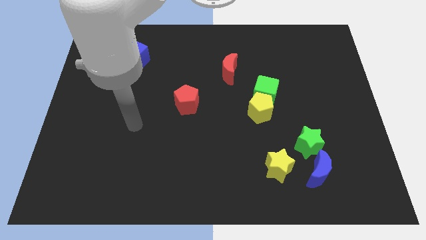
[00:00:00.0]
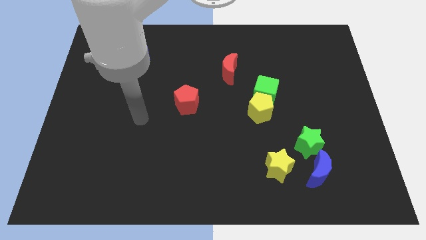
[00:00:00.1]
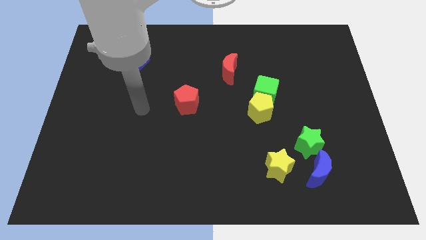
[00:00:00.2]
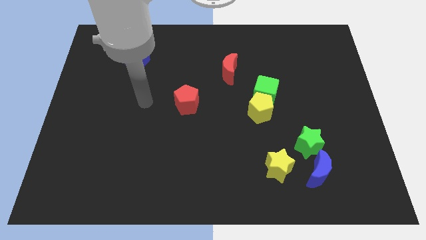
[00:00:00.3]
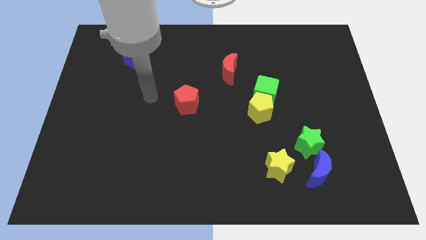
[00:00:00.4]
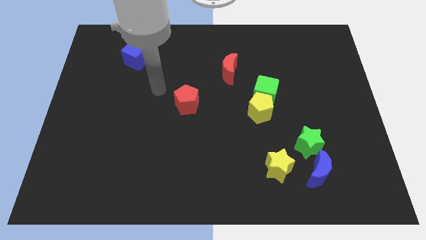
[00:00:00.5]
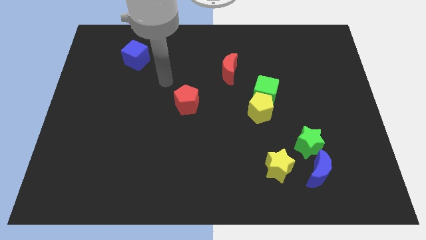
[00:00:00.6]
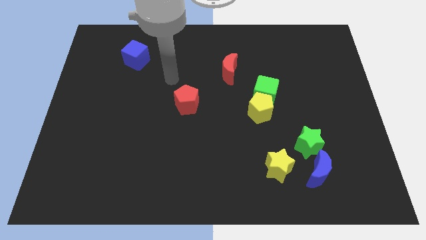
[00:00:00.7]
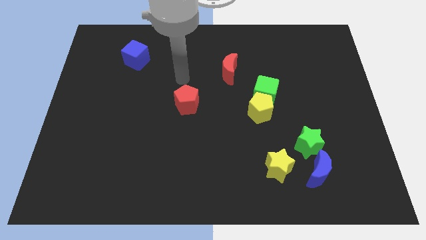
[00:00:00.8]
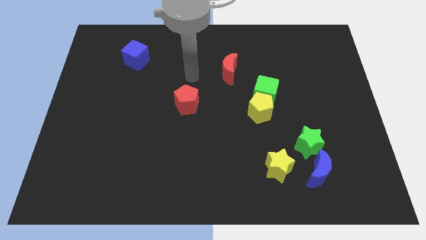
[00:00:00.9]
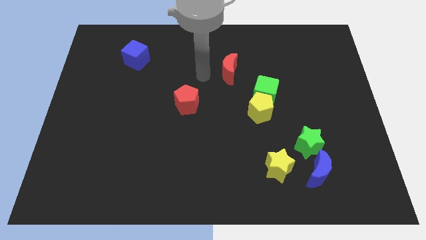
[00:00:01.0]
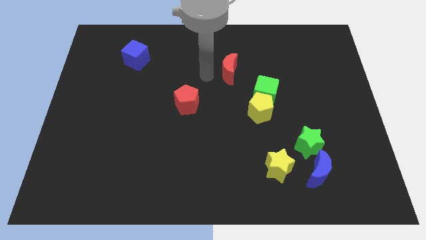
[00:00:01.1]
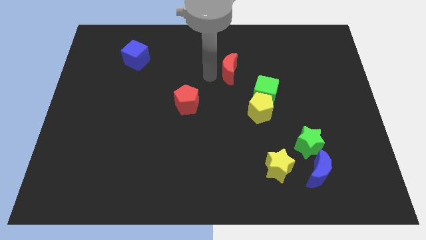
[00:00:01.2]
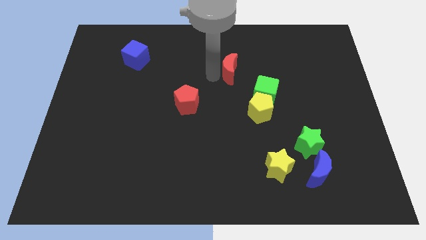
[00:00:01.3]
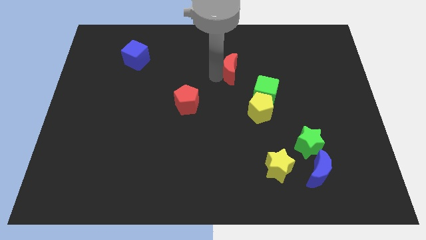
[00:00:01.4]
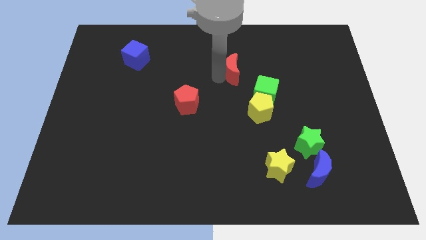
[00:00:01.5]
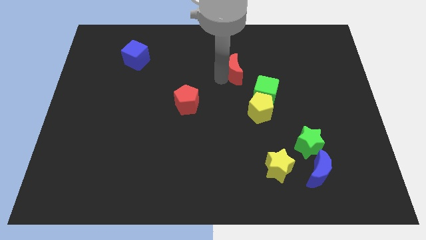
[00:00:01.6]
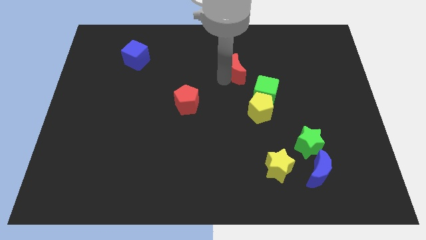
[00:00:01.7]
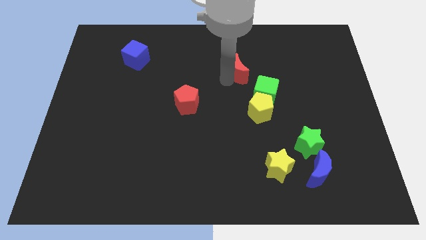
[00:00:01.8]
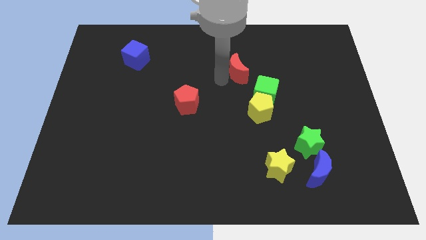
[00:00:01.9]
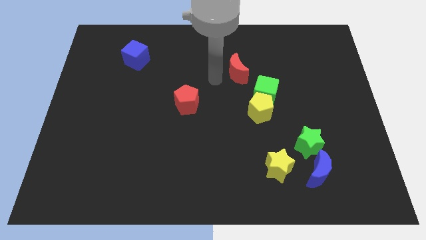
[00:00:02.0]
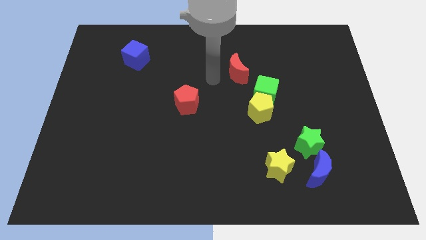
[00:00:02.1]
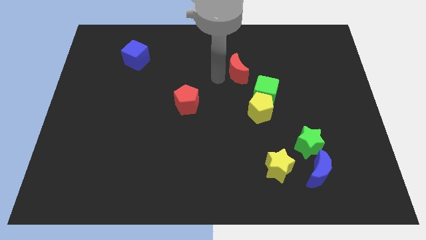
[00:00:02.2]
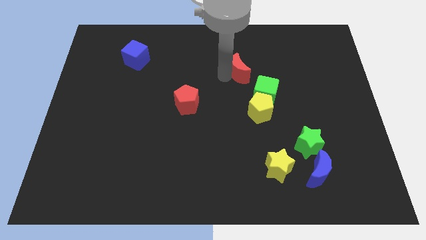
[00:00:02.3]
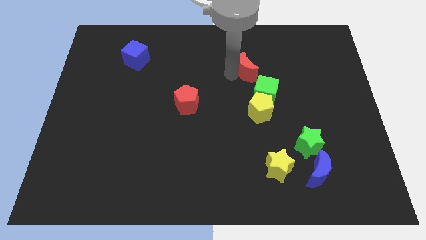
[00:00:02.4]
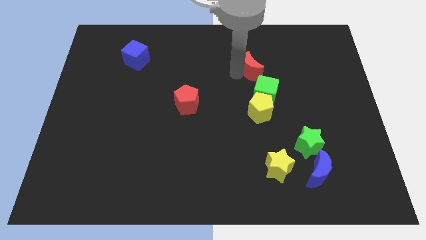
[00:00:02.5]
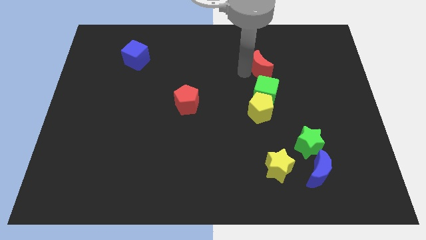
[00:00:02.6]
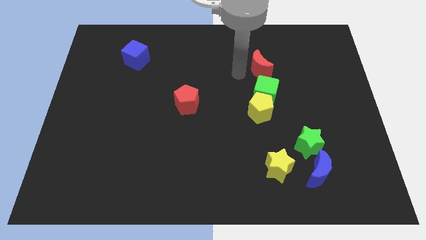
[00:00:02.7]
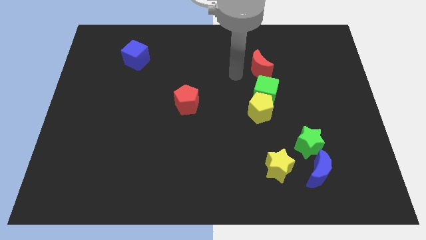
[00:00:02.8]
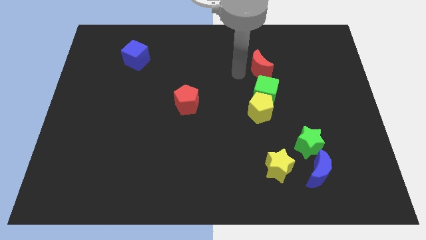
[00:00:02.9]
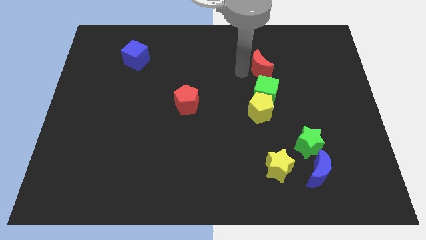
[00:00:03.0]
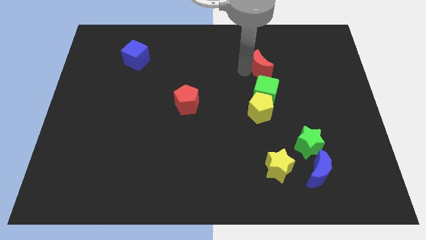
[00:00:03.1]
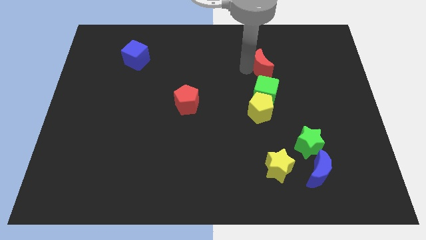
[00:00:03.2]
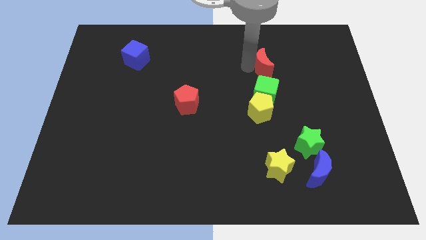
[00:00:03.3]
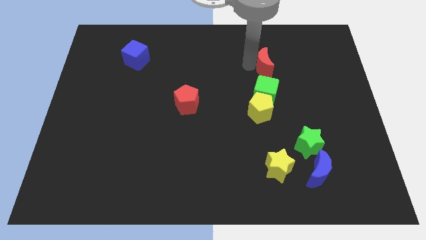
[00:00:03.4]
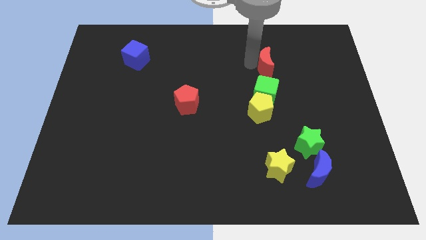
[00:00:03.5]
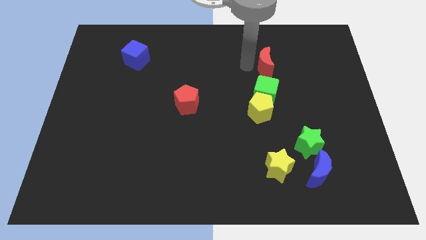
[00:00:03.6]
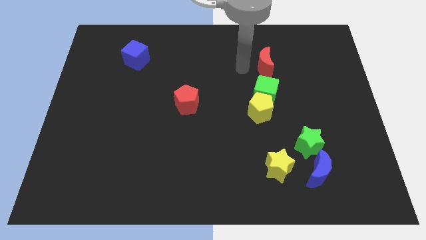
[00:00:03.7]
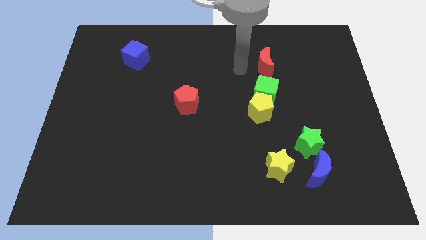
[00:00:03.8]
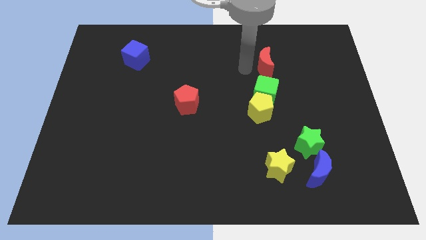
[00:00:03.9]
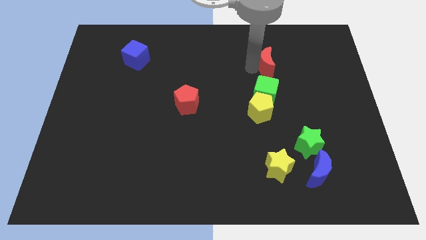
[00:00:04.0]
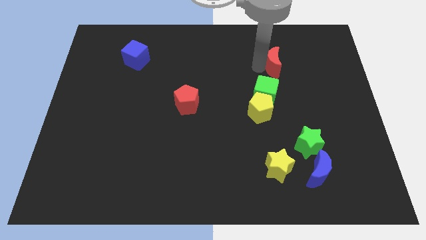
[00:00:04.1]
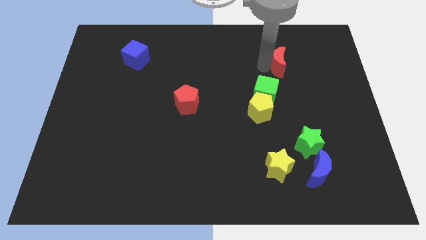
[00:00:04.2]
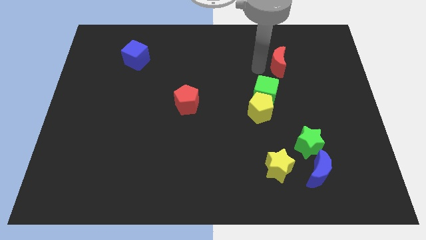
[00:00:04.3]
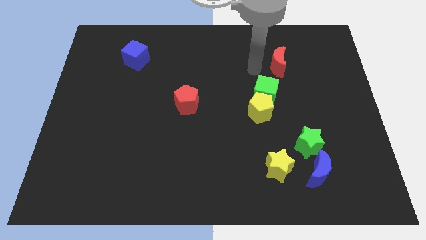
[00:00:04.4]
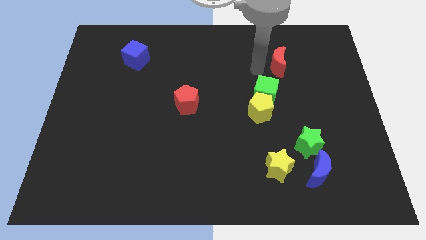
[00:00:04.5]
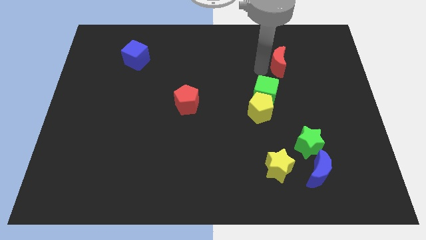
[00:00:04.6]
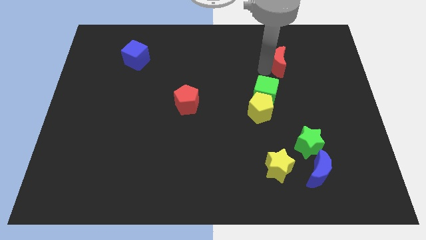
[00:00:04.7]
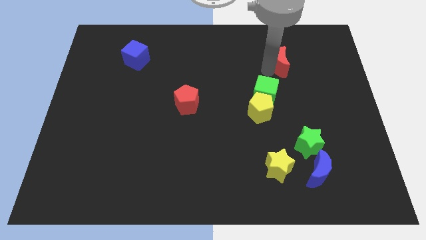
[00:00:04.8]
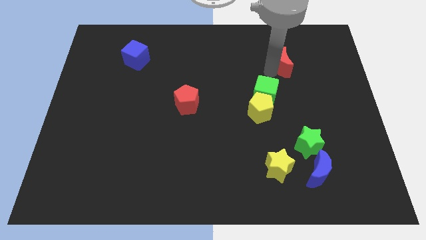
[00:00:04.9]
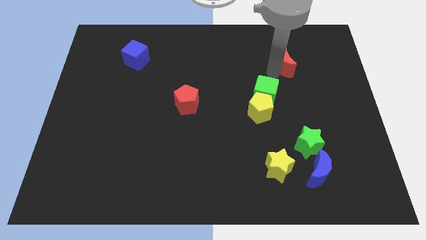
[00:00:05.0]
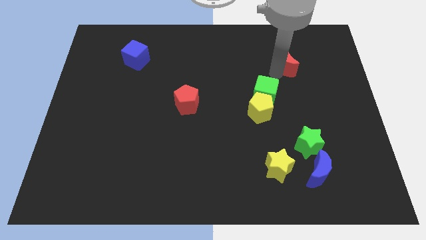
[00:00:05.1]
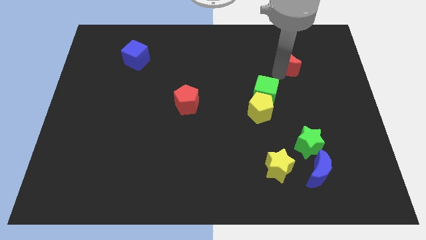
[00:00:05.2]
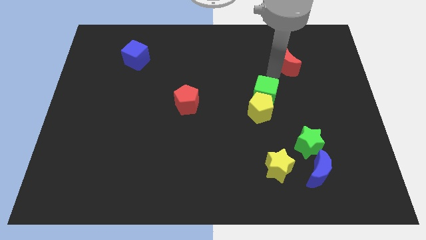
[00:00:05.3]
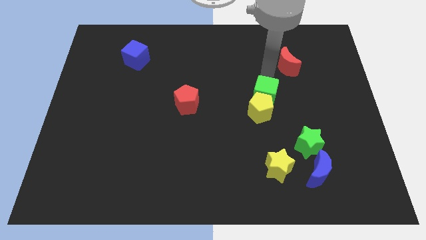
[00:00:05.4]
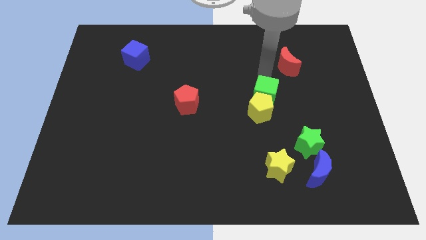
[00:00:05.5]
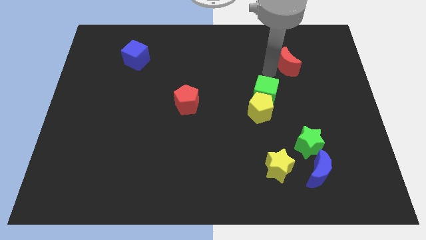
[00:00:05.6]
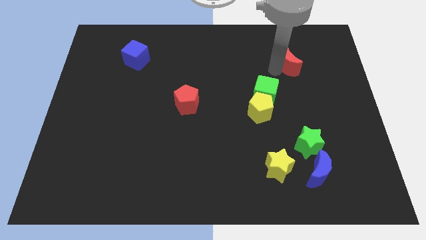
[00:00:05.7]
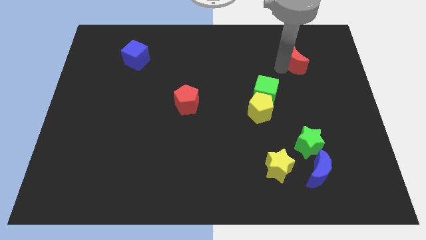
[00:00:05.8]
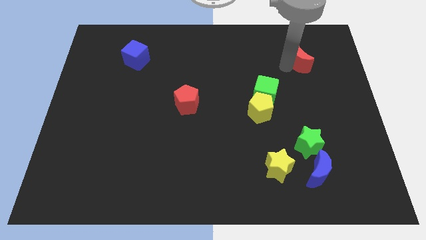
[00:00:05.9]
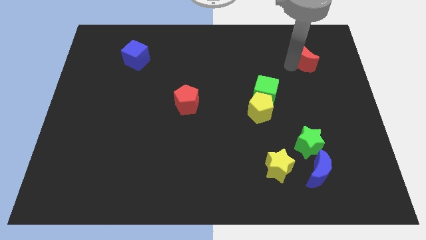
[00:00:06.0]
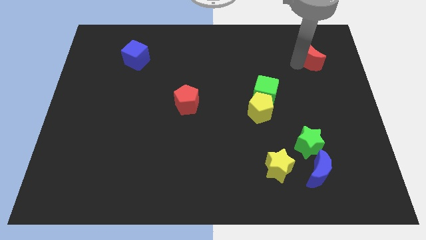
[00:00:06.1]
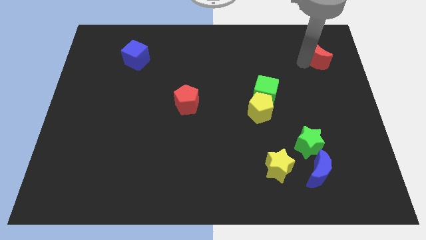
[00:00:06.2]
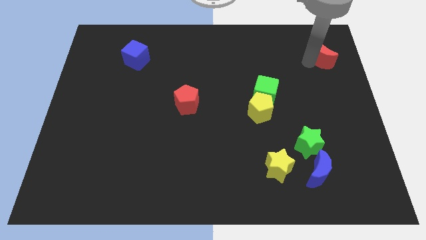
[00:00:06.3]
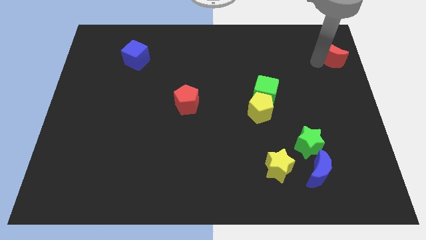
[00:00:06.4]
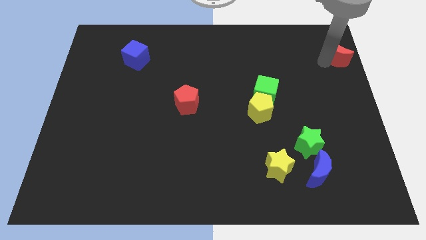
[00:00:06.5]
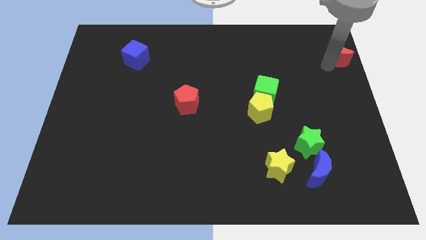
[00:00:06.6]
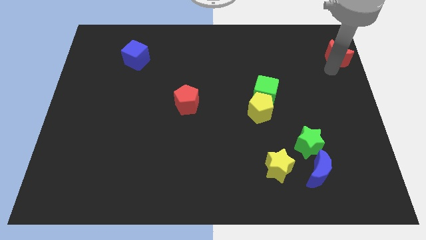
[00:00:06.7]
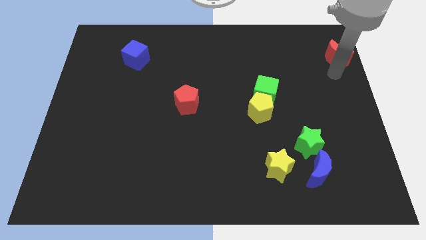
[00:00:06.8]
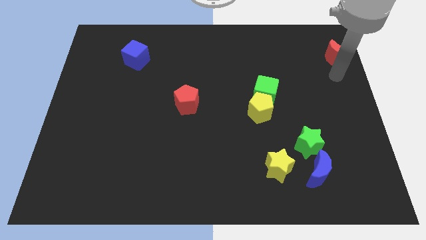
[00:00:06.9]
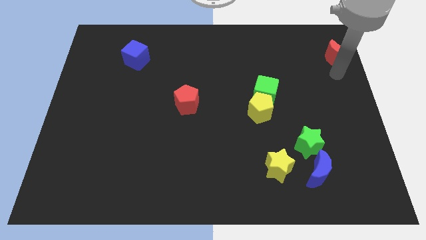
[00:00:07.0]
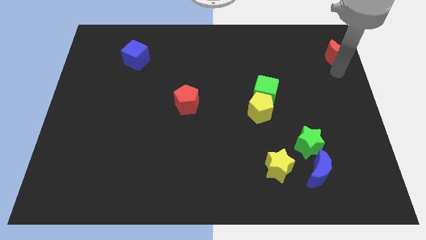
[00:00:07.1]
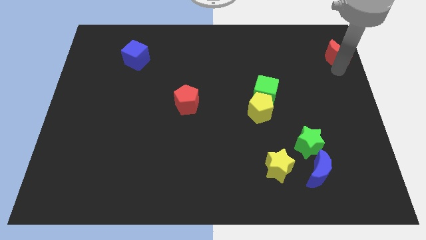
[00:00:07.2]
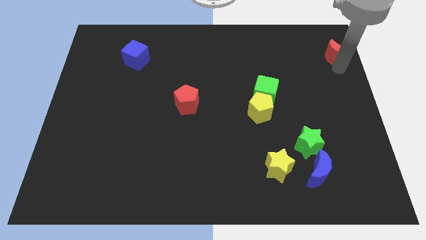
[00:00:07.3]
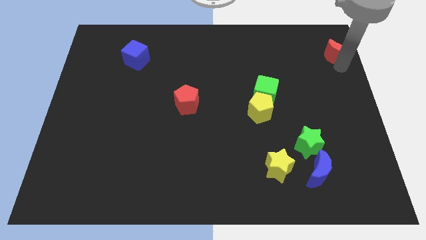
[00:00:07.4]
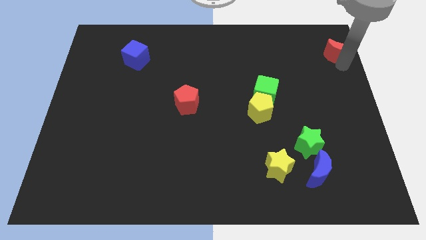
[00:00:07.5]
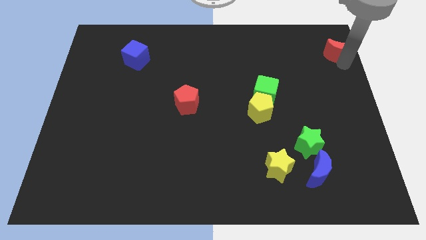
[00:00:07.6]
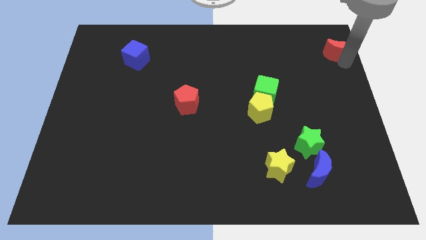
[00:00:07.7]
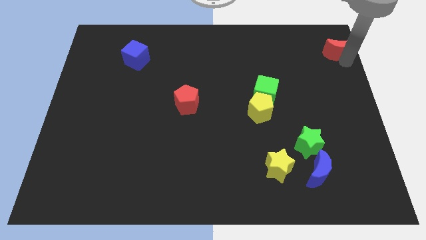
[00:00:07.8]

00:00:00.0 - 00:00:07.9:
move the red moon to the upper right corner
